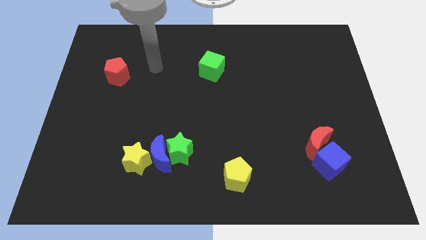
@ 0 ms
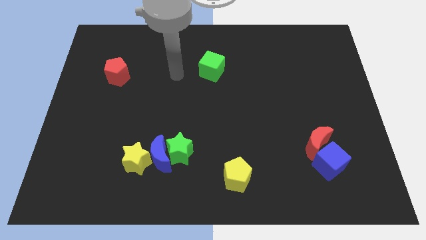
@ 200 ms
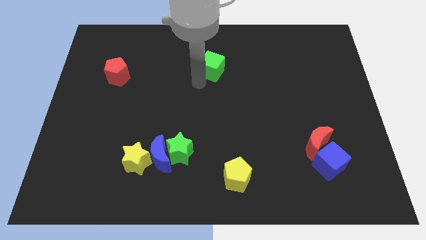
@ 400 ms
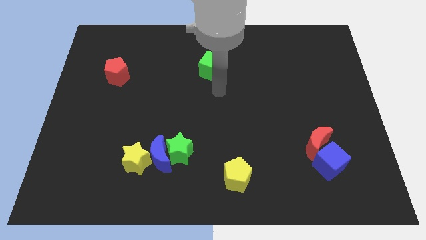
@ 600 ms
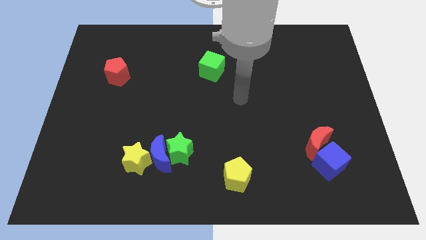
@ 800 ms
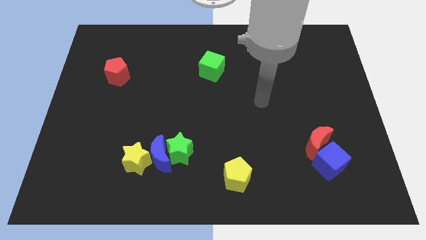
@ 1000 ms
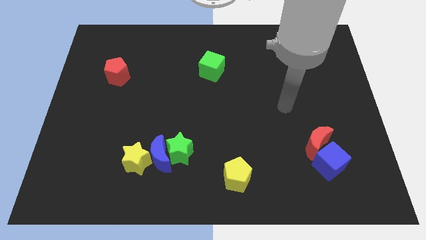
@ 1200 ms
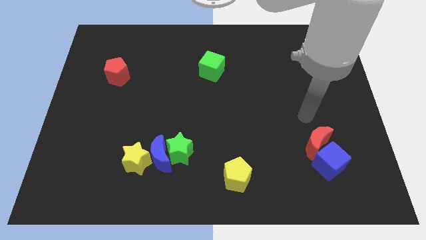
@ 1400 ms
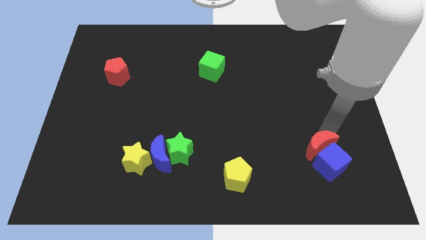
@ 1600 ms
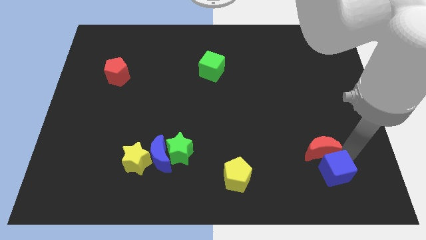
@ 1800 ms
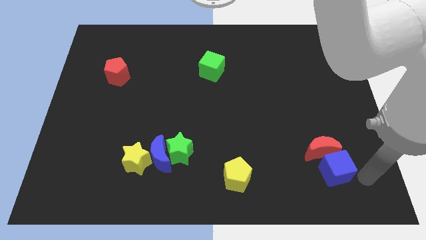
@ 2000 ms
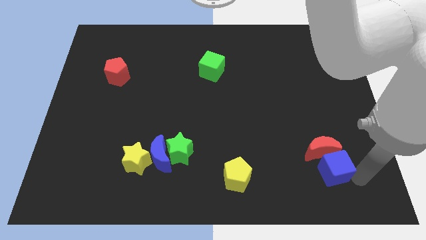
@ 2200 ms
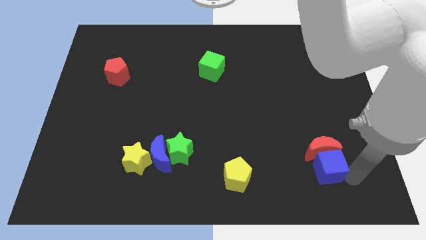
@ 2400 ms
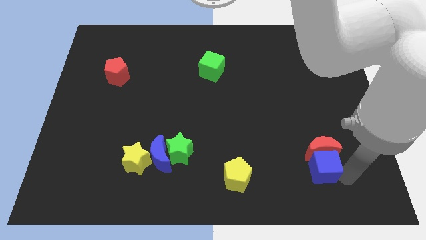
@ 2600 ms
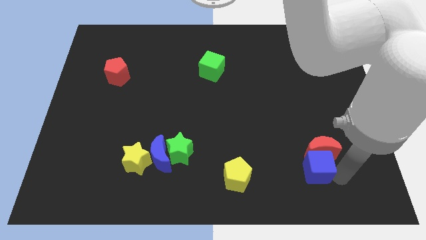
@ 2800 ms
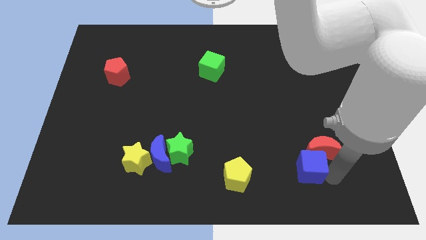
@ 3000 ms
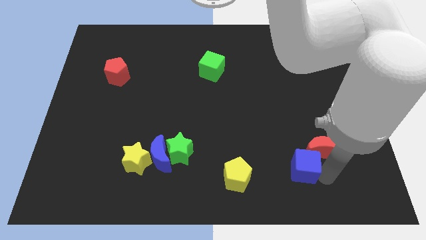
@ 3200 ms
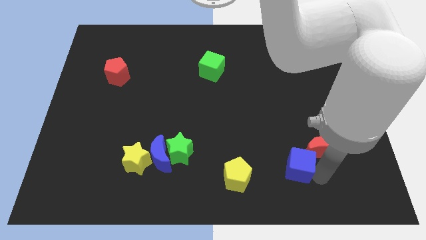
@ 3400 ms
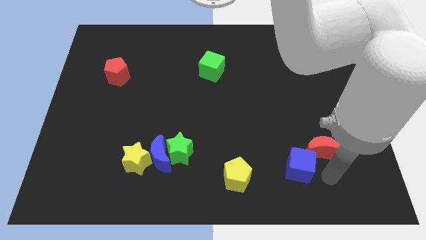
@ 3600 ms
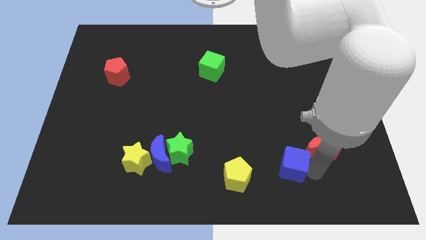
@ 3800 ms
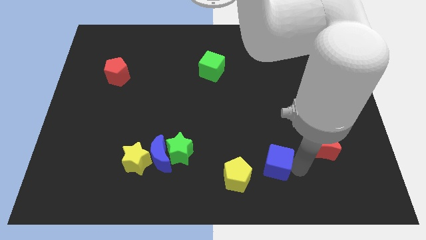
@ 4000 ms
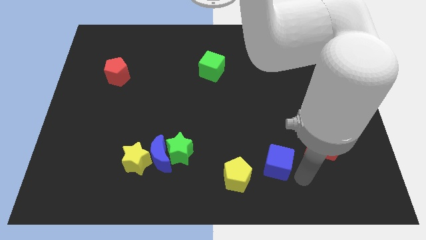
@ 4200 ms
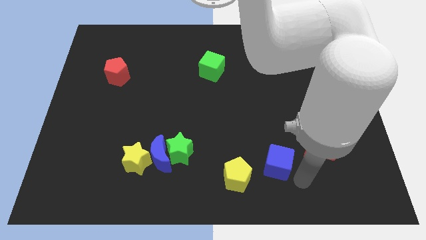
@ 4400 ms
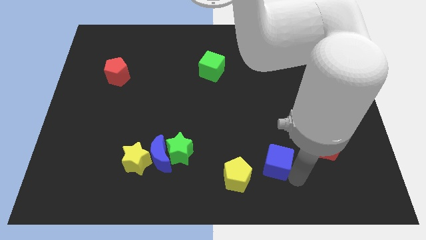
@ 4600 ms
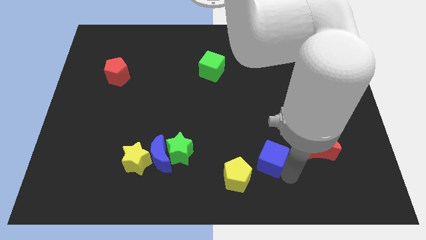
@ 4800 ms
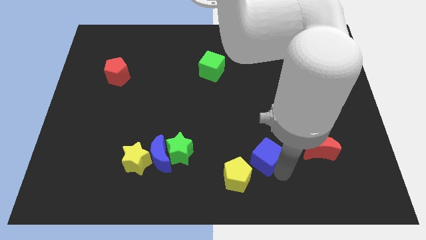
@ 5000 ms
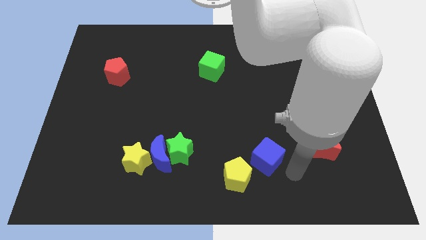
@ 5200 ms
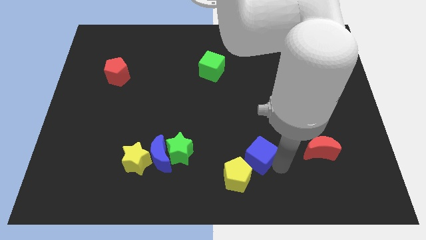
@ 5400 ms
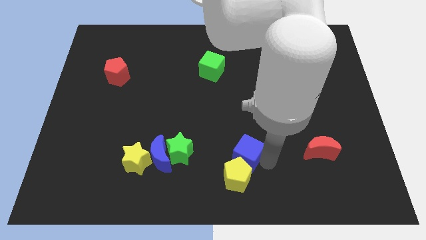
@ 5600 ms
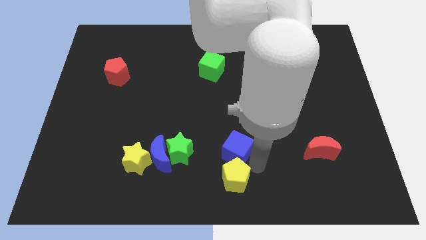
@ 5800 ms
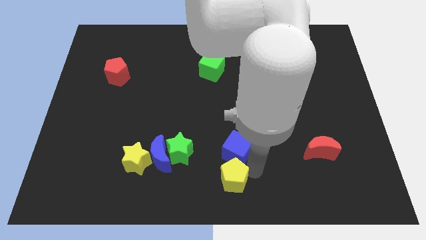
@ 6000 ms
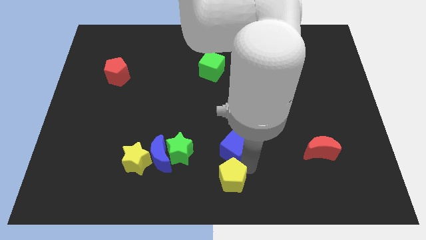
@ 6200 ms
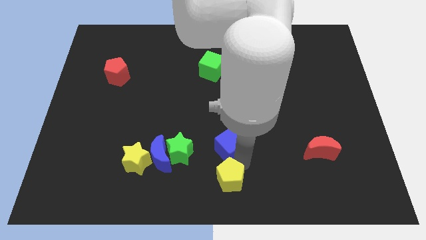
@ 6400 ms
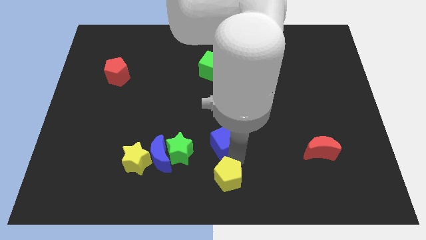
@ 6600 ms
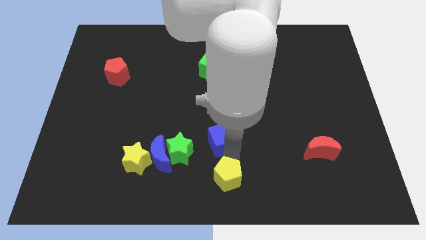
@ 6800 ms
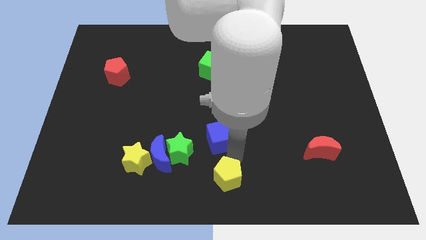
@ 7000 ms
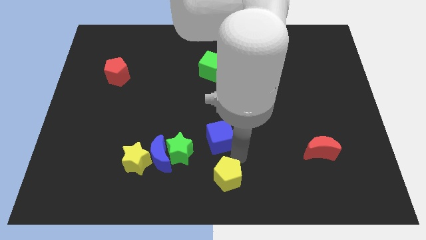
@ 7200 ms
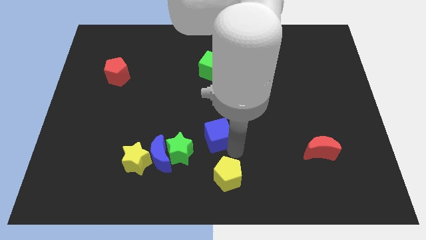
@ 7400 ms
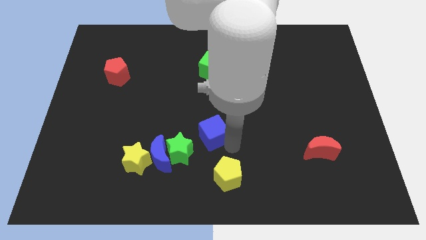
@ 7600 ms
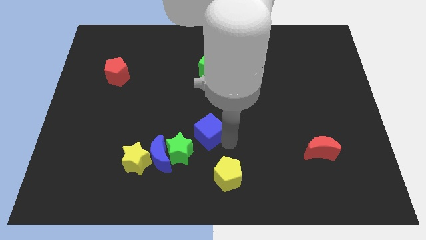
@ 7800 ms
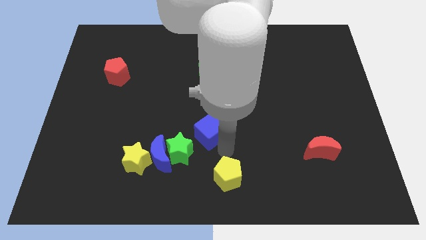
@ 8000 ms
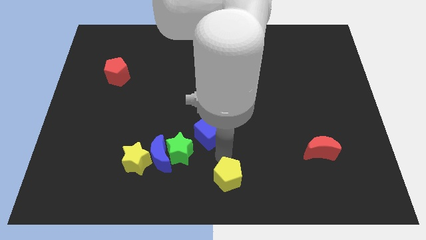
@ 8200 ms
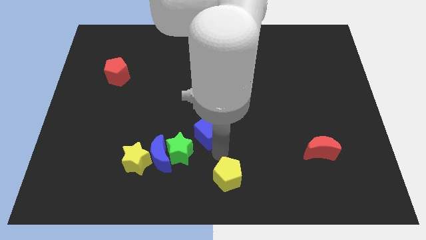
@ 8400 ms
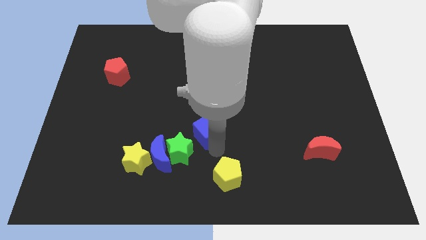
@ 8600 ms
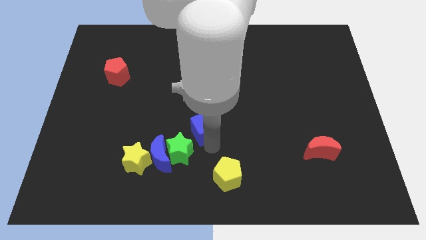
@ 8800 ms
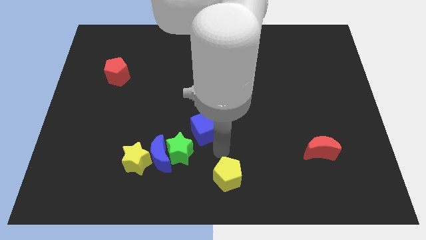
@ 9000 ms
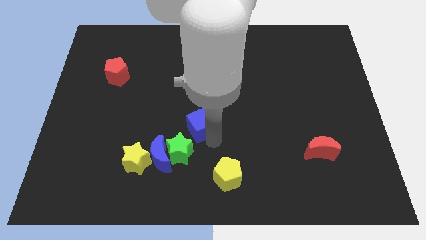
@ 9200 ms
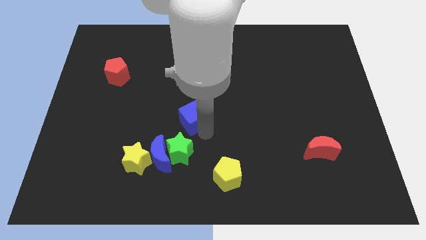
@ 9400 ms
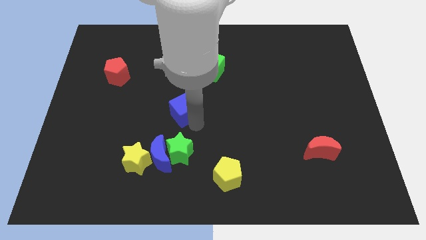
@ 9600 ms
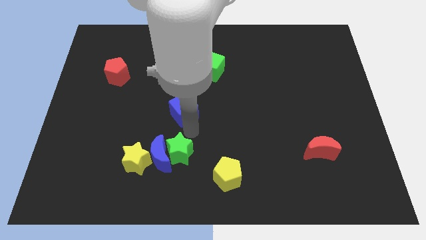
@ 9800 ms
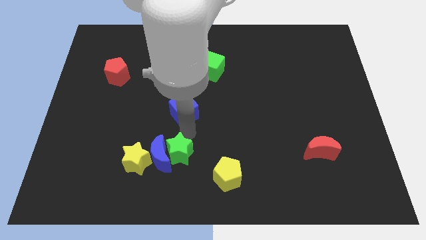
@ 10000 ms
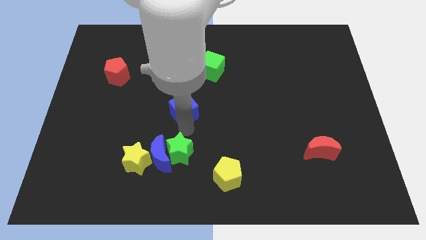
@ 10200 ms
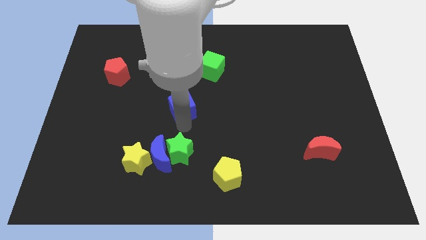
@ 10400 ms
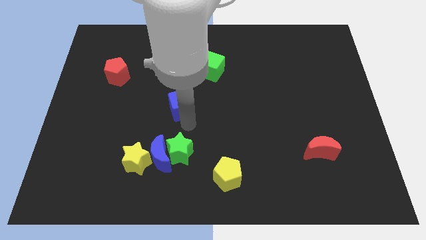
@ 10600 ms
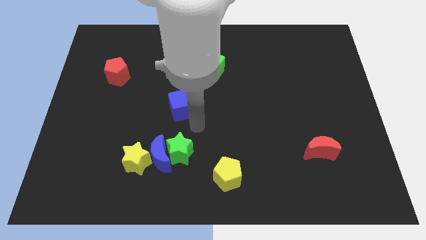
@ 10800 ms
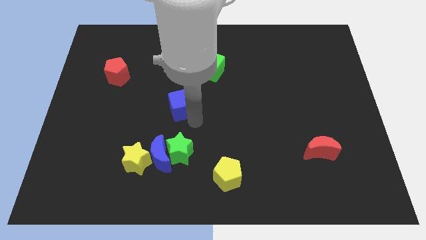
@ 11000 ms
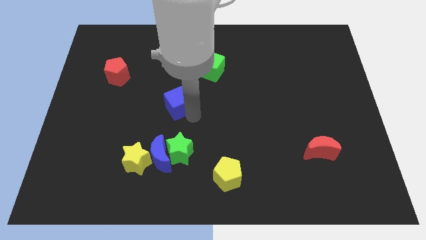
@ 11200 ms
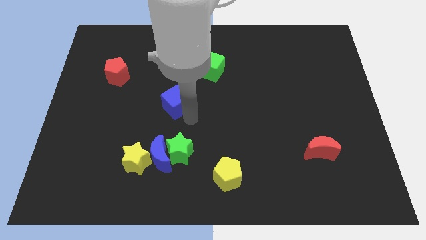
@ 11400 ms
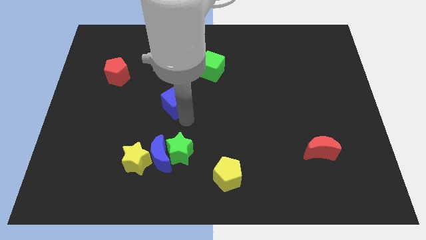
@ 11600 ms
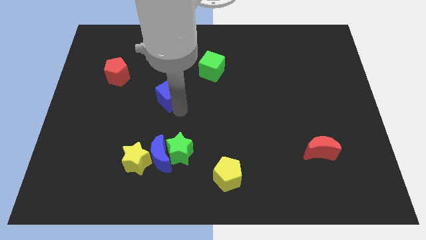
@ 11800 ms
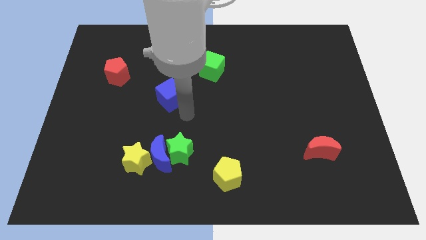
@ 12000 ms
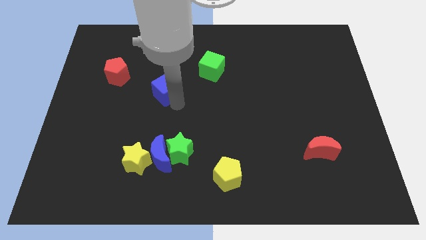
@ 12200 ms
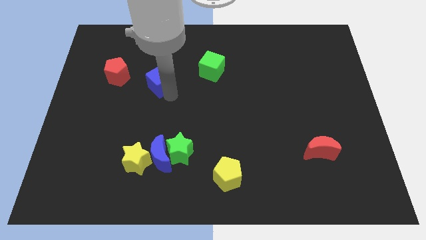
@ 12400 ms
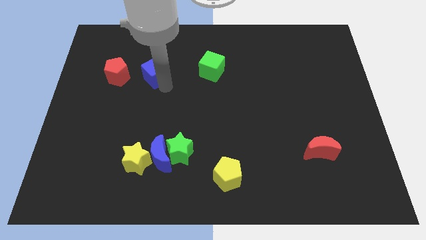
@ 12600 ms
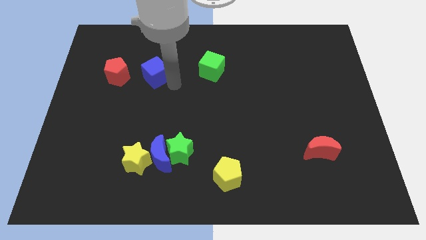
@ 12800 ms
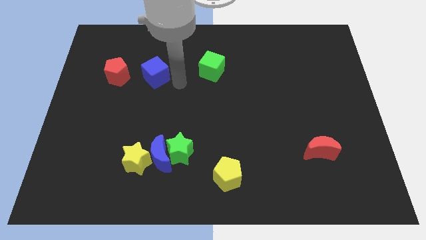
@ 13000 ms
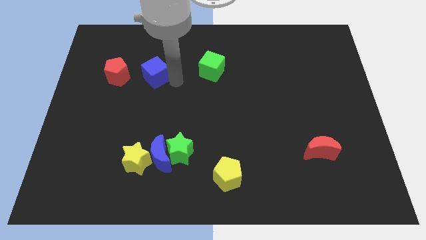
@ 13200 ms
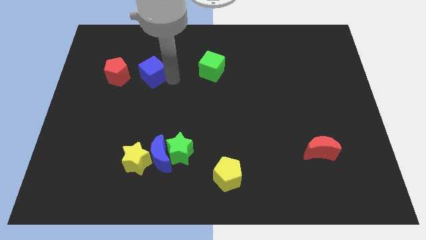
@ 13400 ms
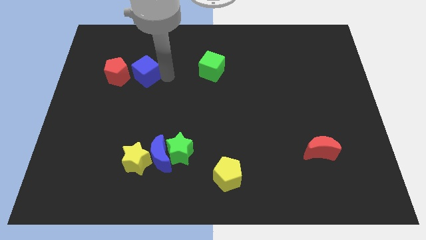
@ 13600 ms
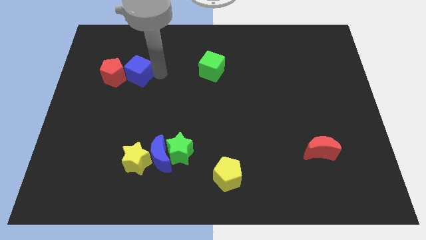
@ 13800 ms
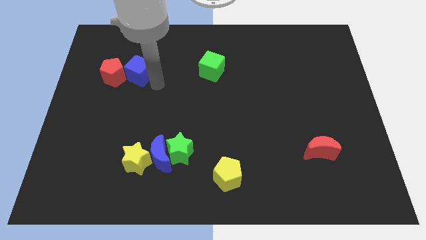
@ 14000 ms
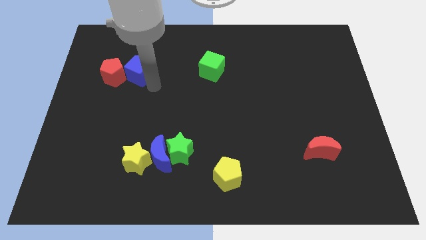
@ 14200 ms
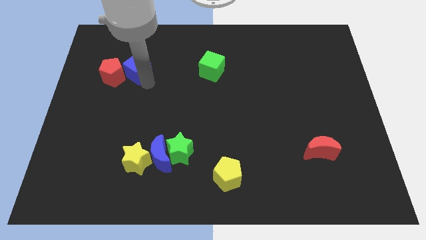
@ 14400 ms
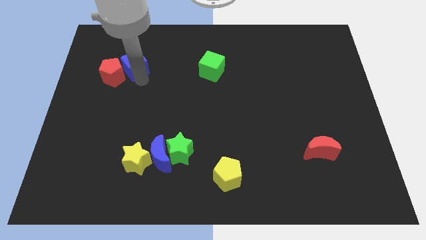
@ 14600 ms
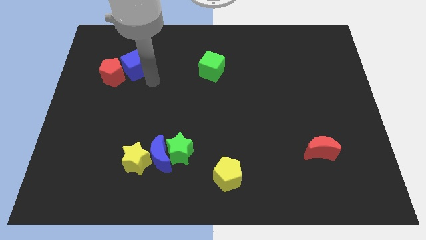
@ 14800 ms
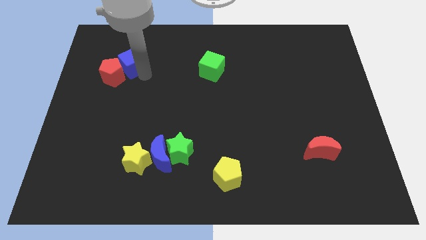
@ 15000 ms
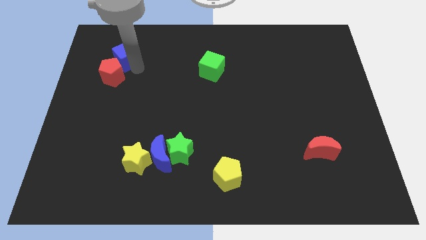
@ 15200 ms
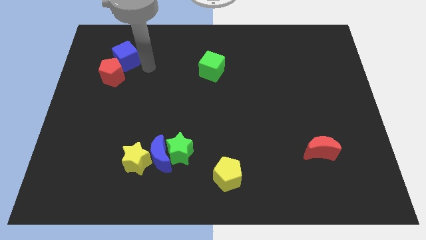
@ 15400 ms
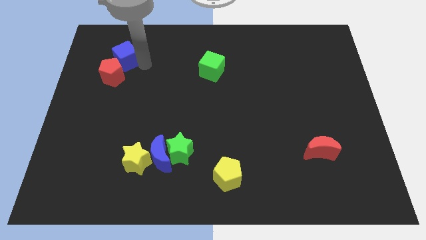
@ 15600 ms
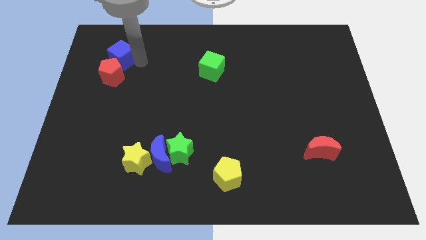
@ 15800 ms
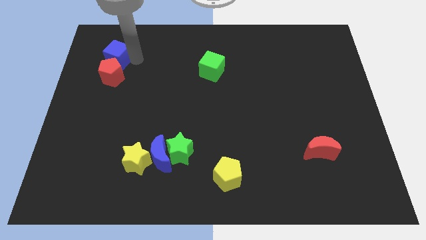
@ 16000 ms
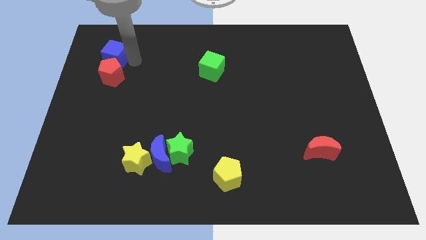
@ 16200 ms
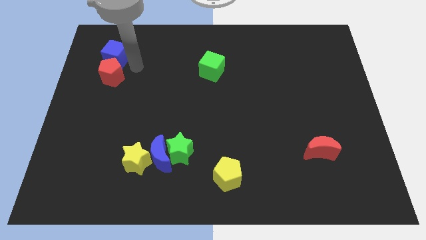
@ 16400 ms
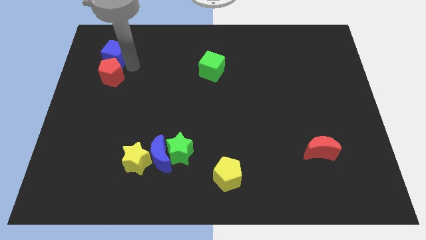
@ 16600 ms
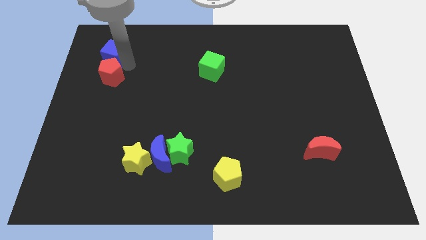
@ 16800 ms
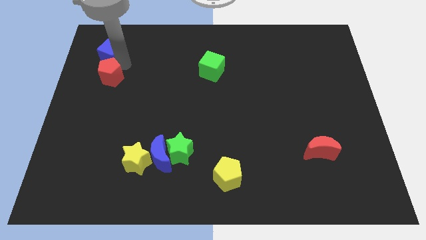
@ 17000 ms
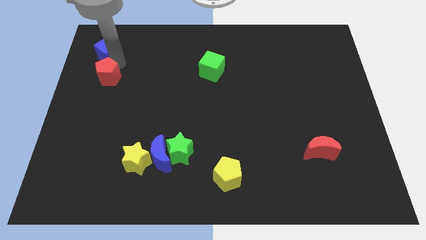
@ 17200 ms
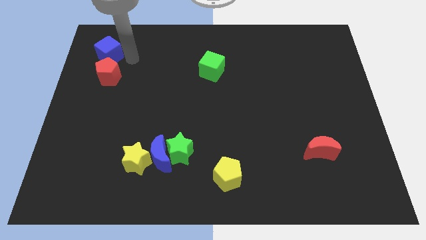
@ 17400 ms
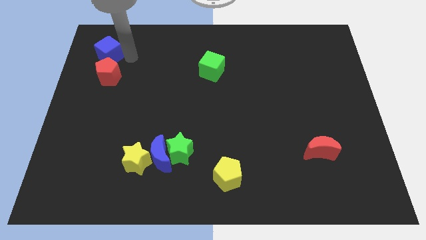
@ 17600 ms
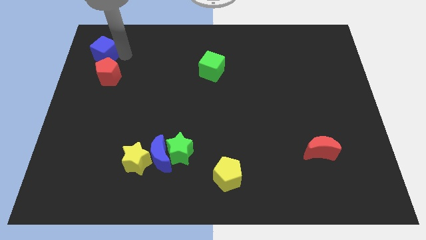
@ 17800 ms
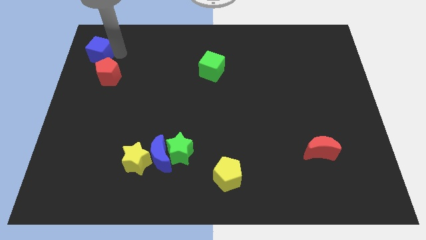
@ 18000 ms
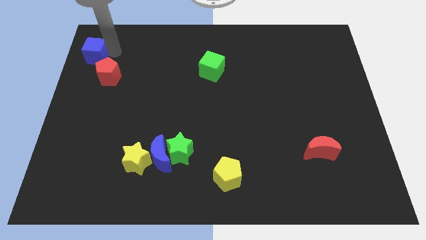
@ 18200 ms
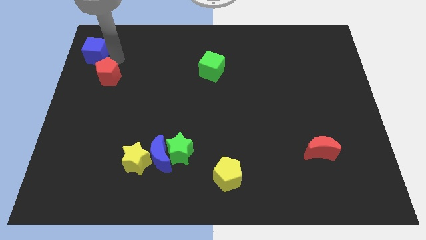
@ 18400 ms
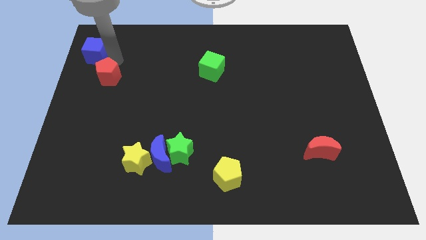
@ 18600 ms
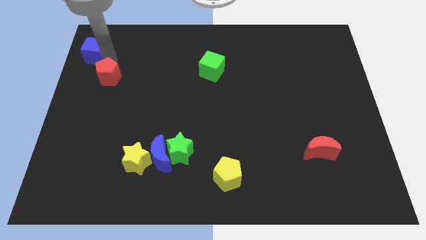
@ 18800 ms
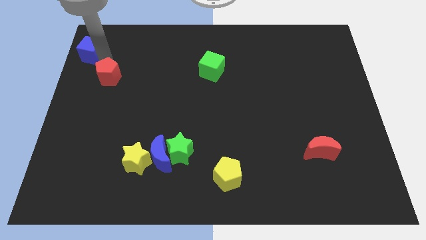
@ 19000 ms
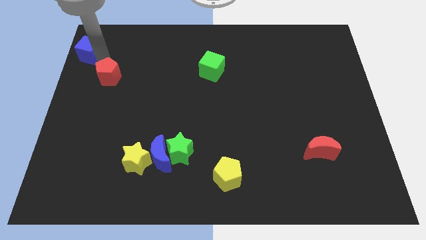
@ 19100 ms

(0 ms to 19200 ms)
put the blue cube to the upper left corner
